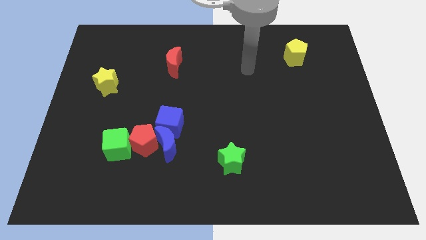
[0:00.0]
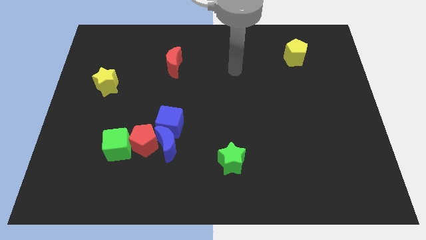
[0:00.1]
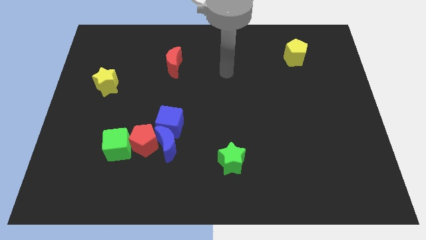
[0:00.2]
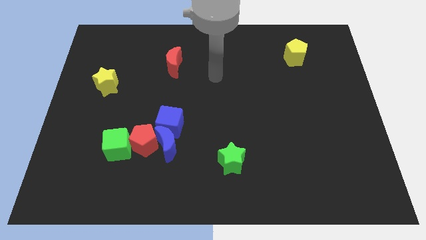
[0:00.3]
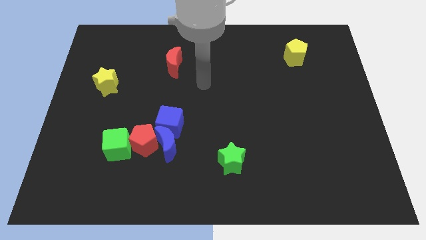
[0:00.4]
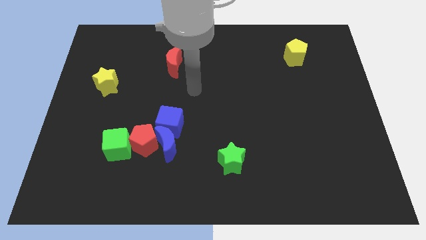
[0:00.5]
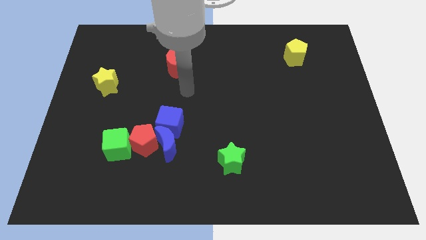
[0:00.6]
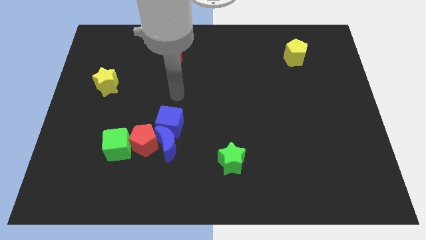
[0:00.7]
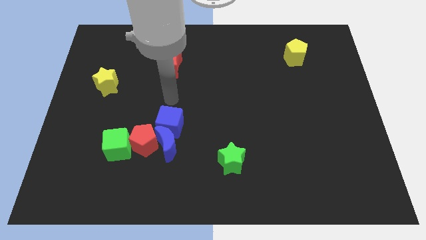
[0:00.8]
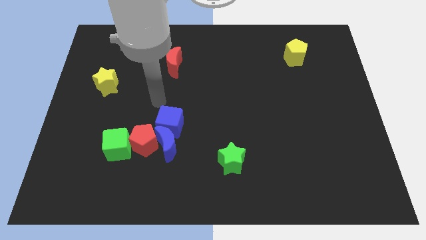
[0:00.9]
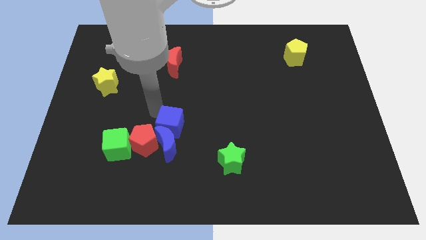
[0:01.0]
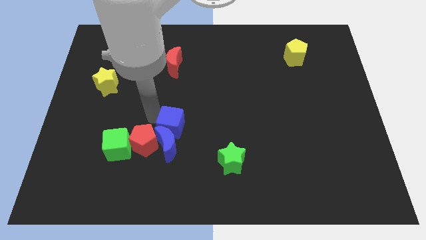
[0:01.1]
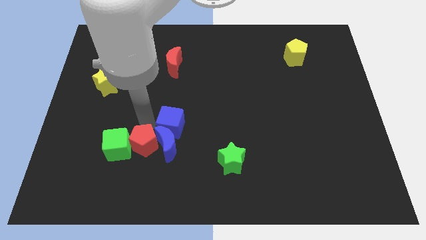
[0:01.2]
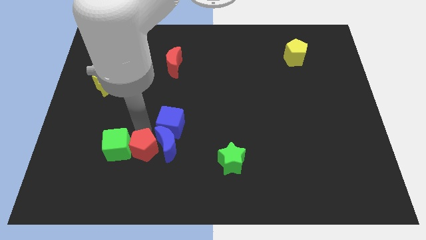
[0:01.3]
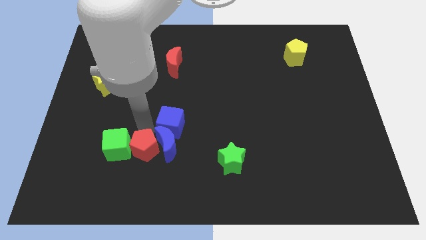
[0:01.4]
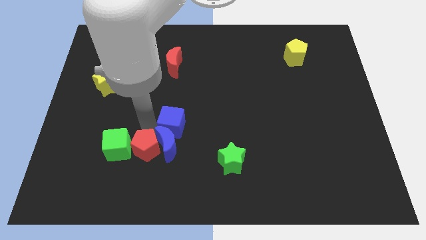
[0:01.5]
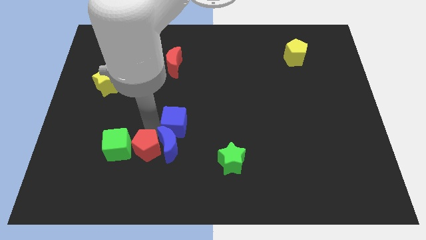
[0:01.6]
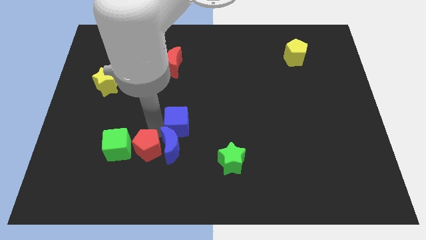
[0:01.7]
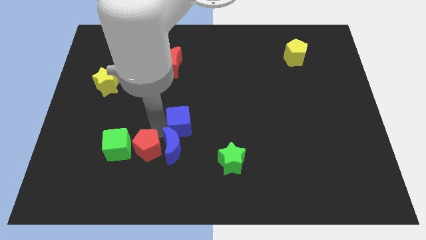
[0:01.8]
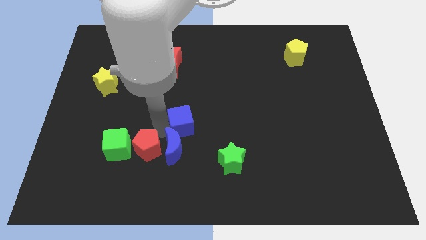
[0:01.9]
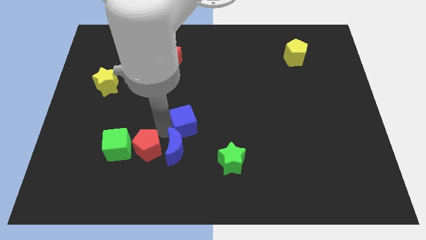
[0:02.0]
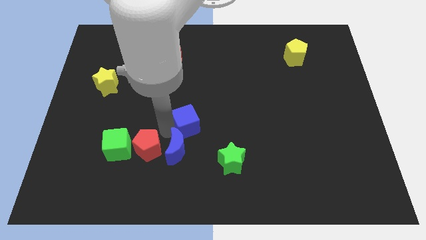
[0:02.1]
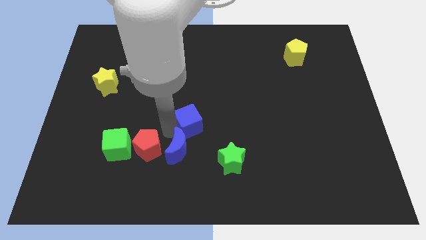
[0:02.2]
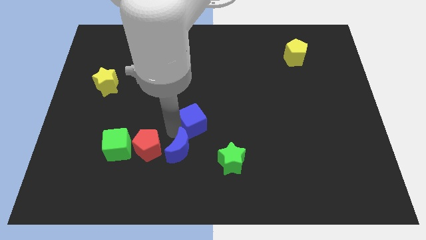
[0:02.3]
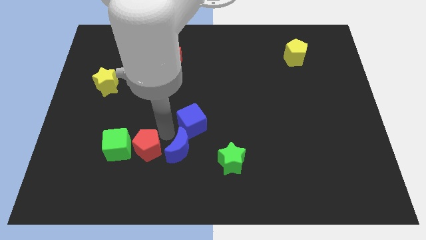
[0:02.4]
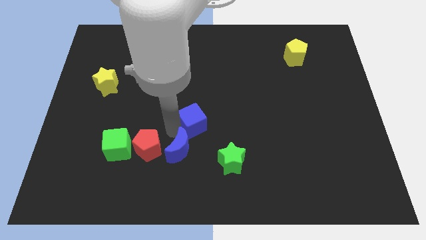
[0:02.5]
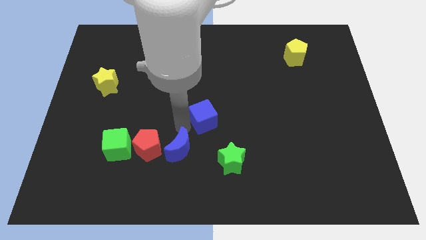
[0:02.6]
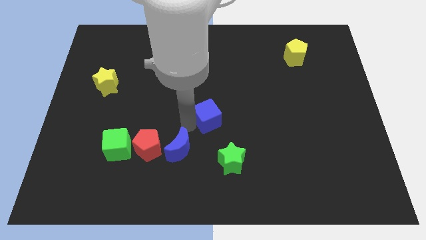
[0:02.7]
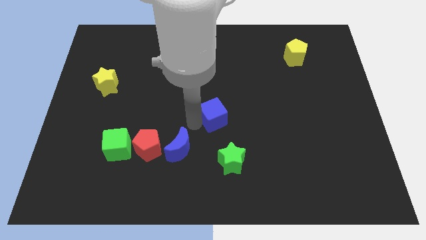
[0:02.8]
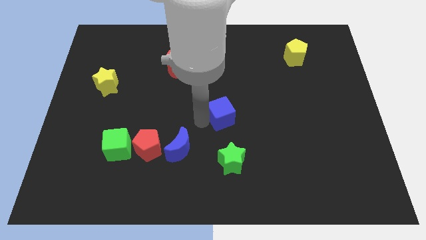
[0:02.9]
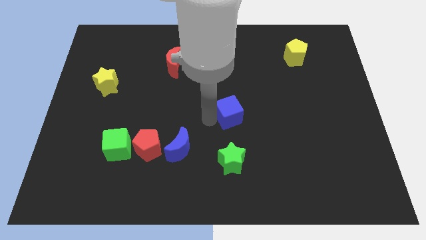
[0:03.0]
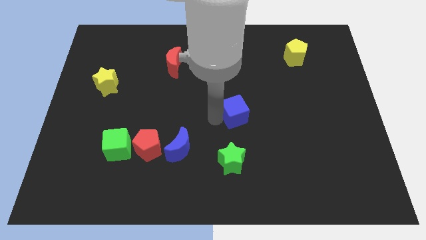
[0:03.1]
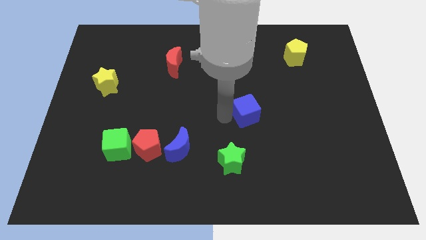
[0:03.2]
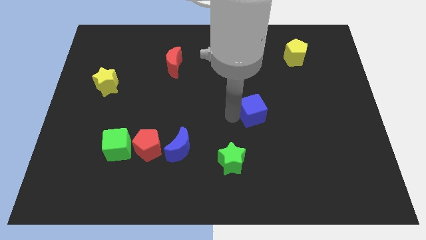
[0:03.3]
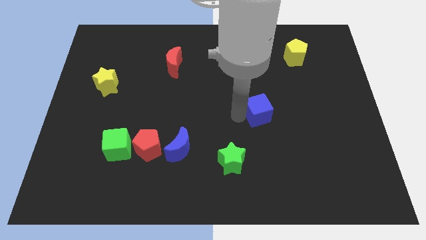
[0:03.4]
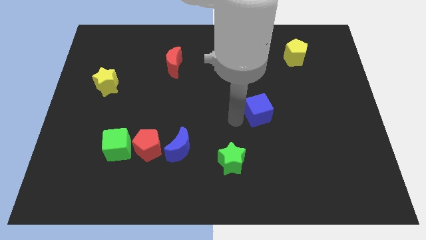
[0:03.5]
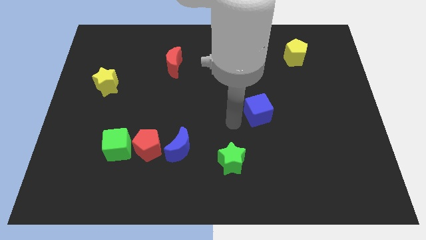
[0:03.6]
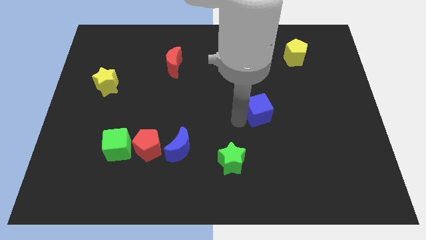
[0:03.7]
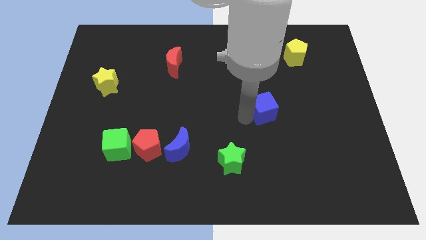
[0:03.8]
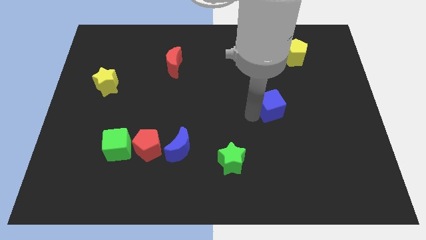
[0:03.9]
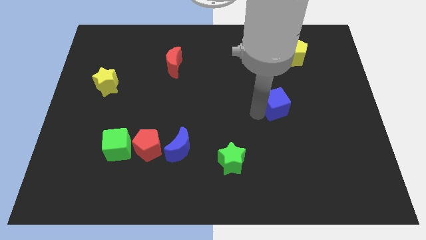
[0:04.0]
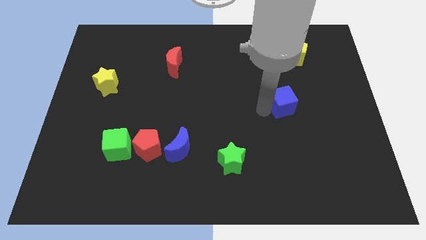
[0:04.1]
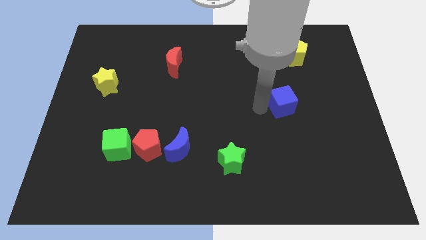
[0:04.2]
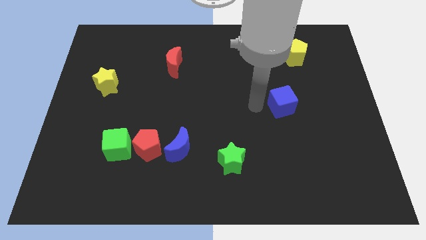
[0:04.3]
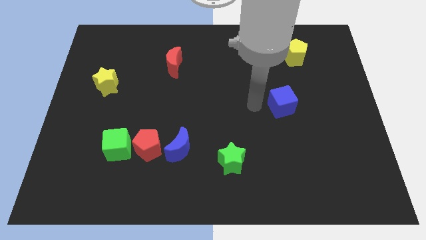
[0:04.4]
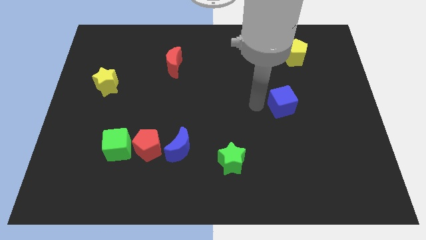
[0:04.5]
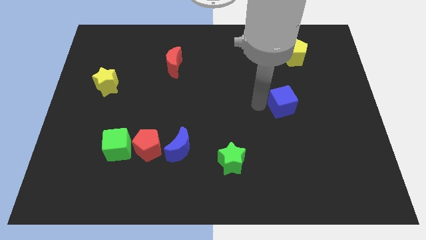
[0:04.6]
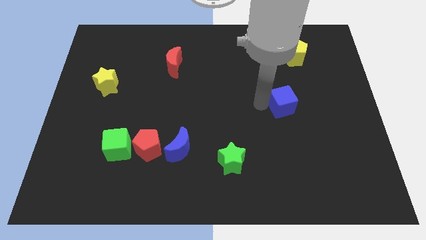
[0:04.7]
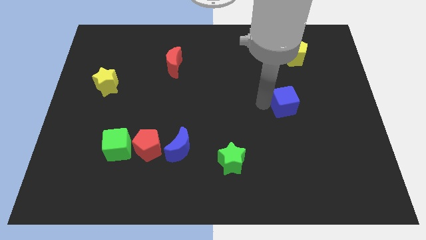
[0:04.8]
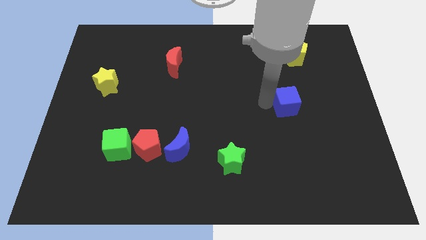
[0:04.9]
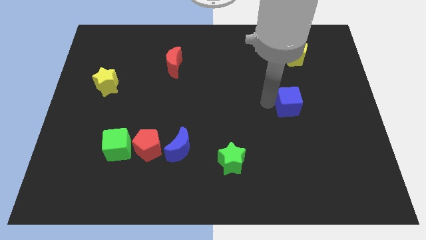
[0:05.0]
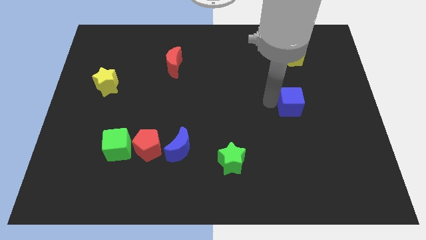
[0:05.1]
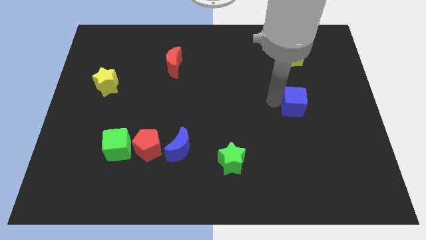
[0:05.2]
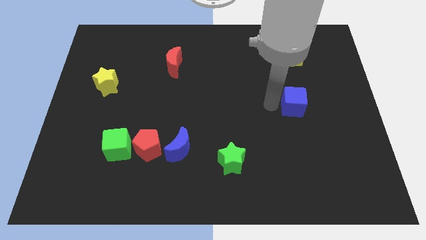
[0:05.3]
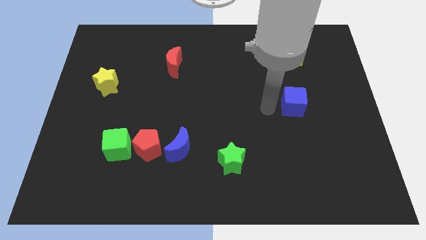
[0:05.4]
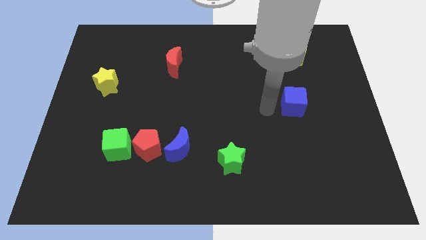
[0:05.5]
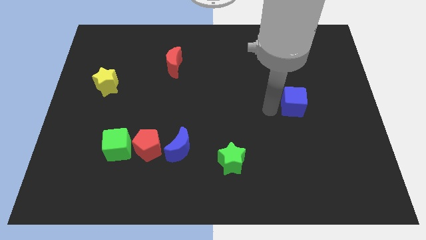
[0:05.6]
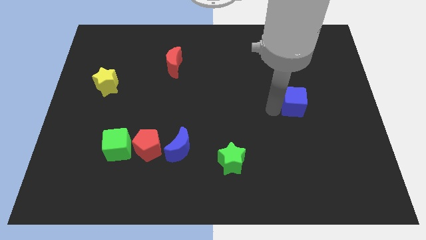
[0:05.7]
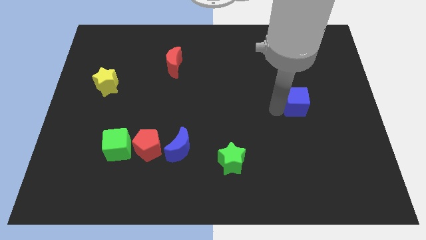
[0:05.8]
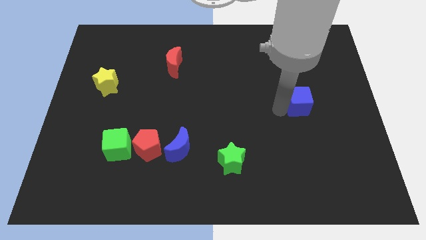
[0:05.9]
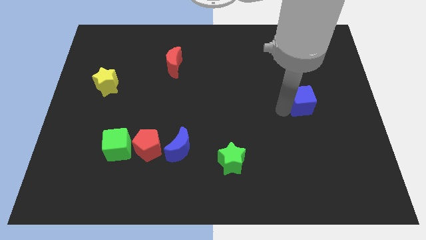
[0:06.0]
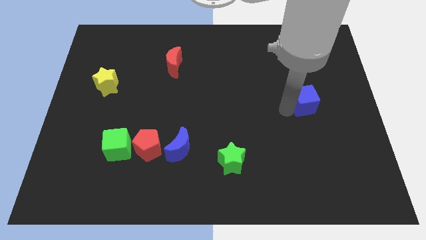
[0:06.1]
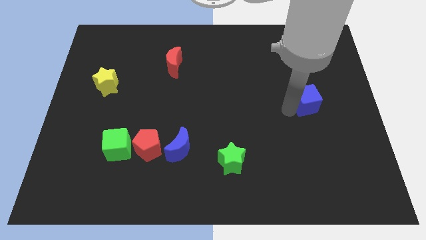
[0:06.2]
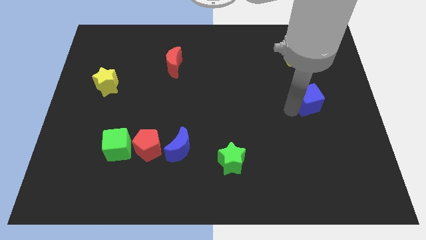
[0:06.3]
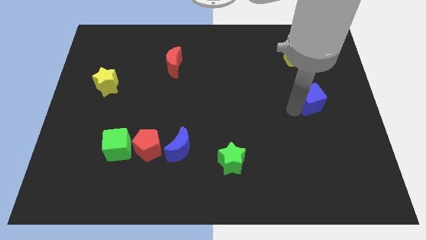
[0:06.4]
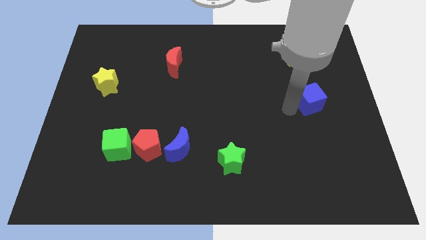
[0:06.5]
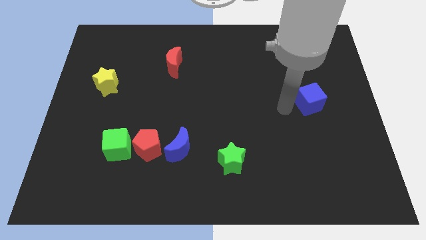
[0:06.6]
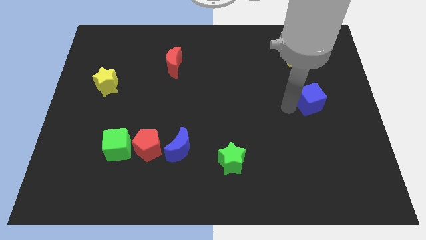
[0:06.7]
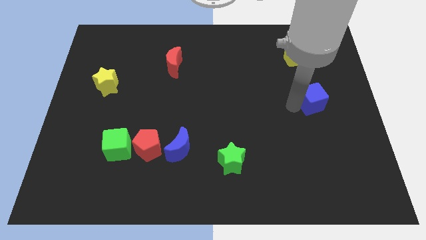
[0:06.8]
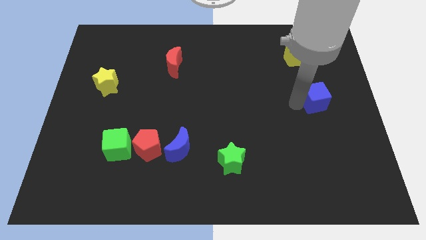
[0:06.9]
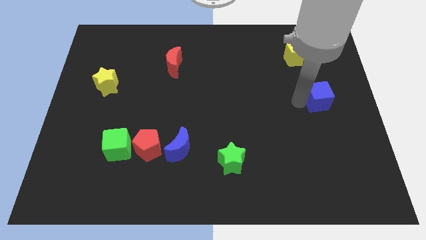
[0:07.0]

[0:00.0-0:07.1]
move the blue cube to the right side of the board
